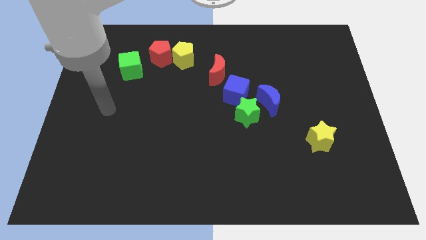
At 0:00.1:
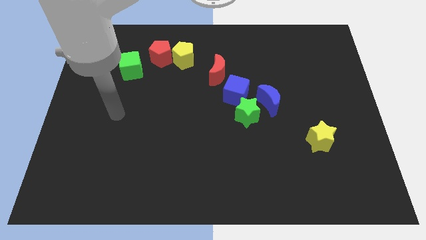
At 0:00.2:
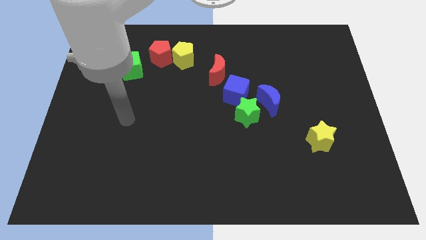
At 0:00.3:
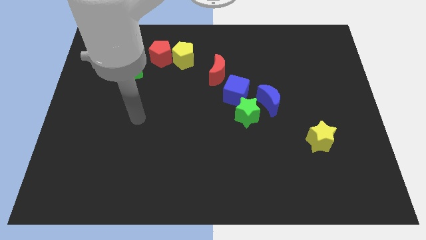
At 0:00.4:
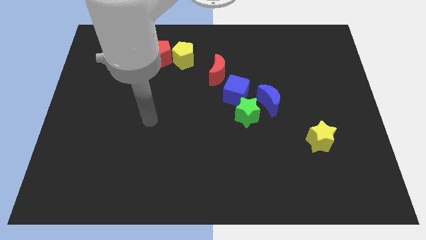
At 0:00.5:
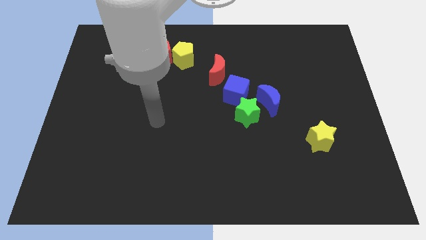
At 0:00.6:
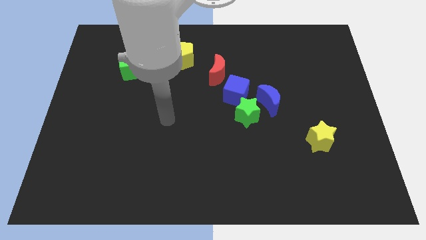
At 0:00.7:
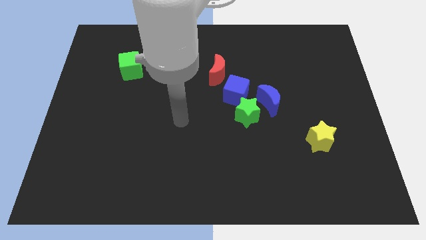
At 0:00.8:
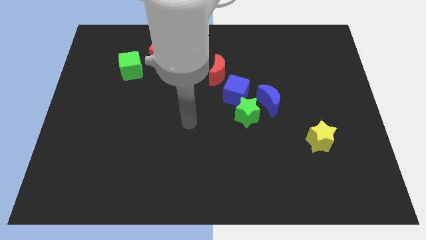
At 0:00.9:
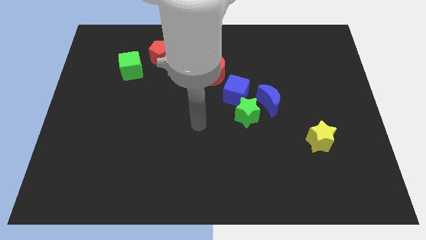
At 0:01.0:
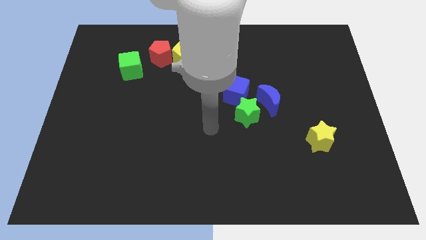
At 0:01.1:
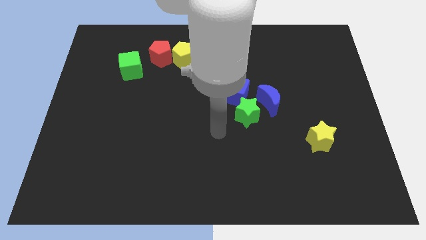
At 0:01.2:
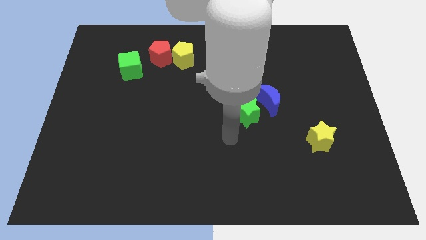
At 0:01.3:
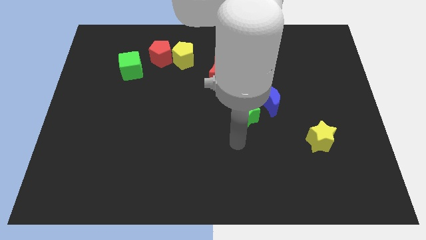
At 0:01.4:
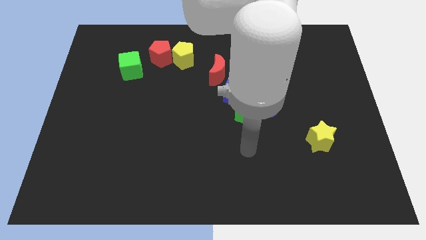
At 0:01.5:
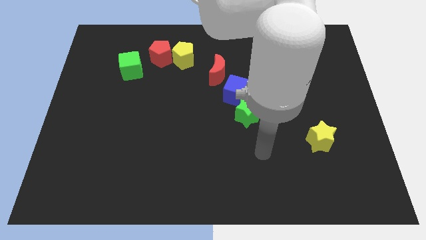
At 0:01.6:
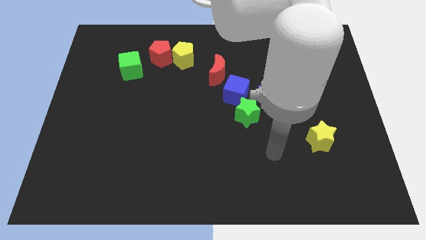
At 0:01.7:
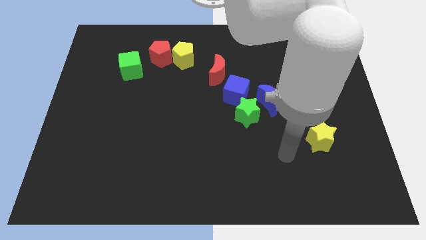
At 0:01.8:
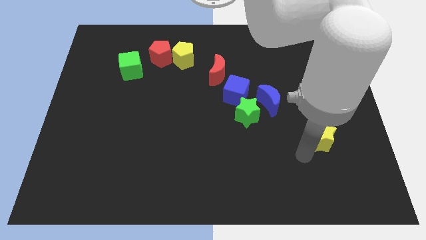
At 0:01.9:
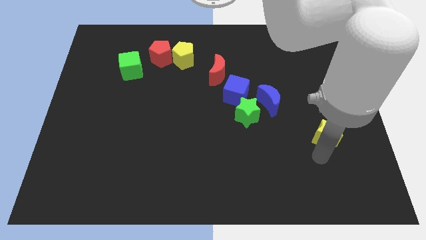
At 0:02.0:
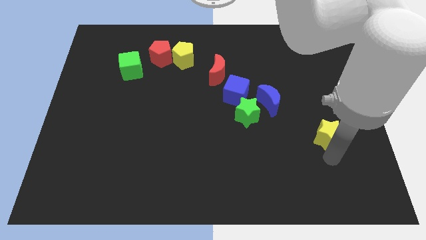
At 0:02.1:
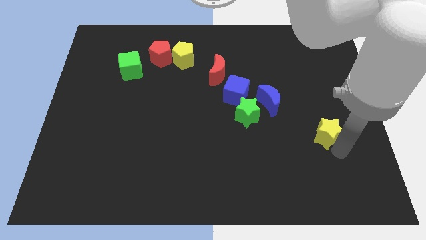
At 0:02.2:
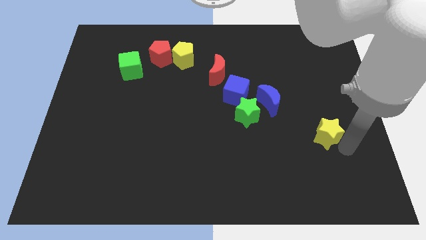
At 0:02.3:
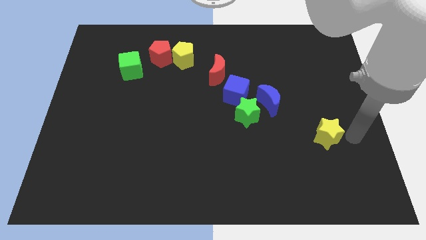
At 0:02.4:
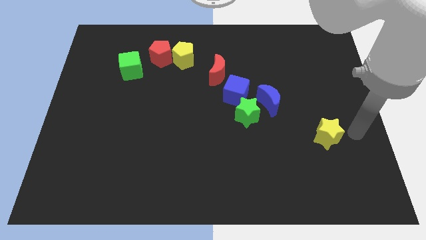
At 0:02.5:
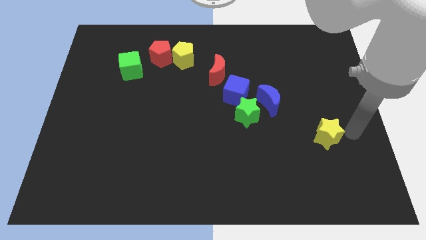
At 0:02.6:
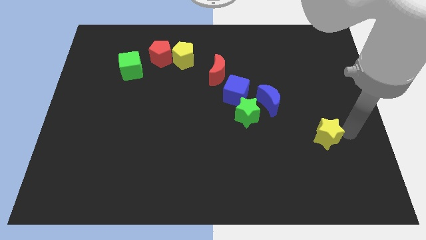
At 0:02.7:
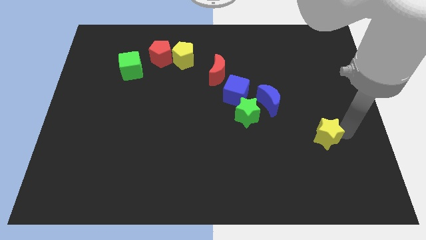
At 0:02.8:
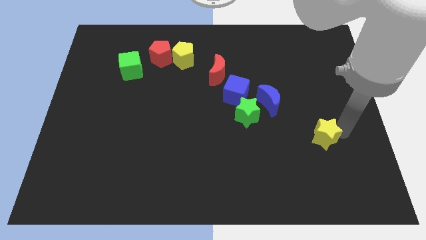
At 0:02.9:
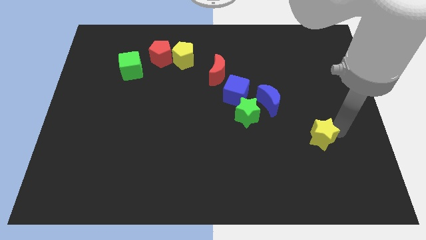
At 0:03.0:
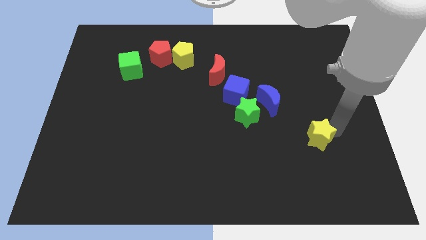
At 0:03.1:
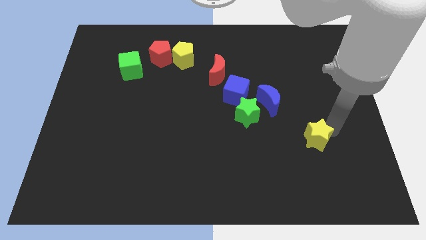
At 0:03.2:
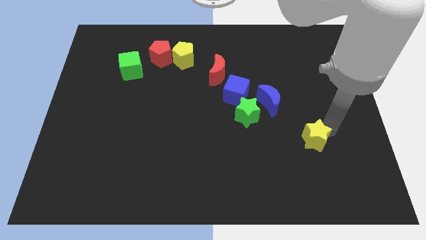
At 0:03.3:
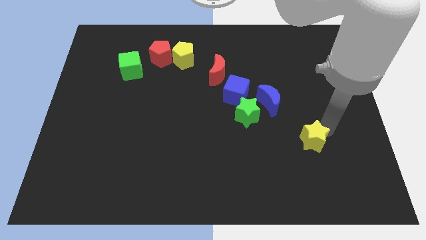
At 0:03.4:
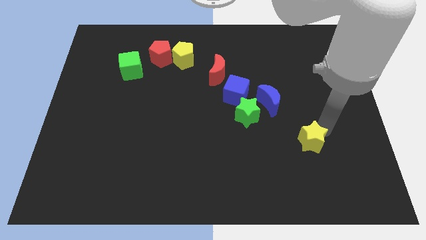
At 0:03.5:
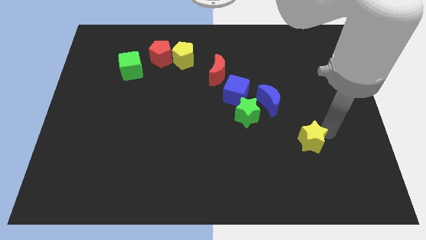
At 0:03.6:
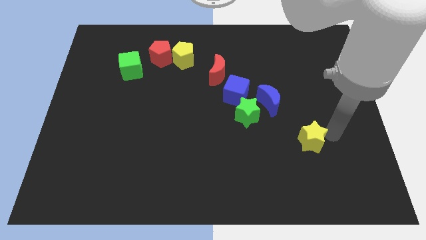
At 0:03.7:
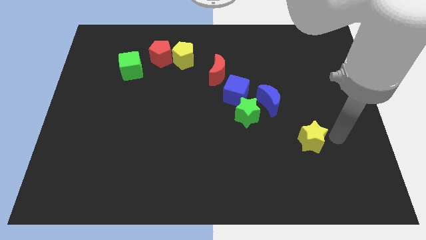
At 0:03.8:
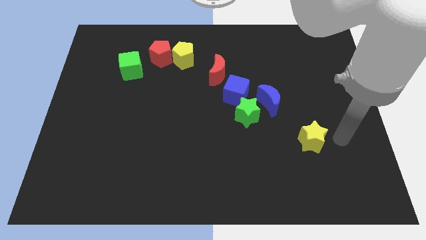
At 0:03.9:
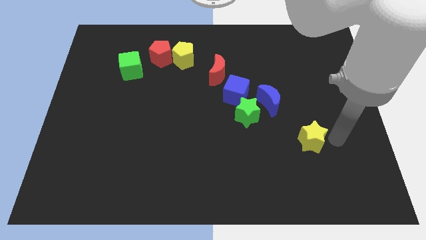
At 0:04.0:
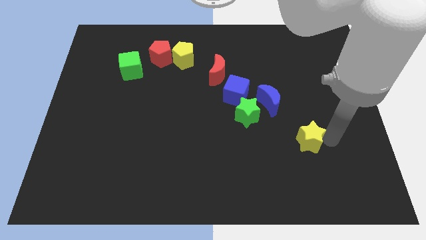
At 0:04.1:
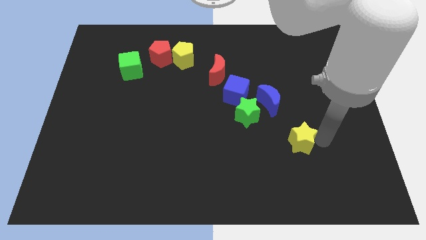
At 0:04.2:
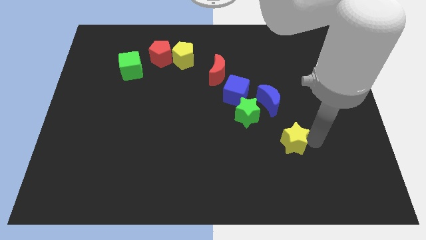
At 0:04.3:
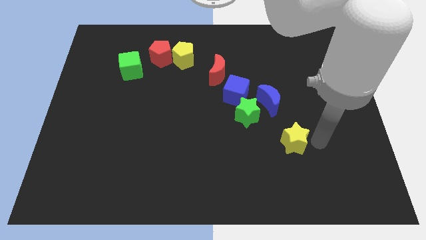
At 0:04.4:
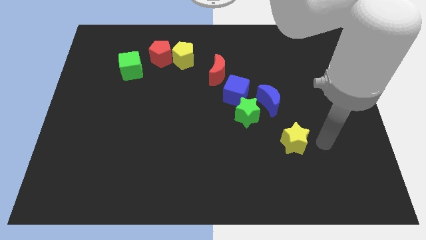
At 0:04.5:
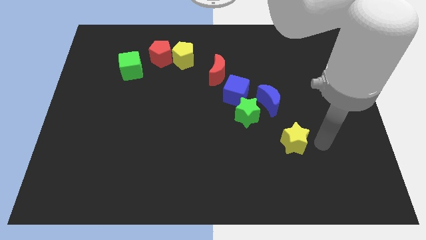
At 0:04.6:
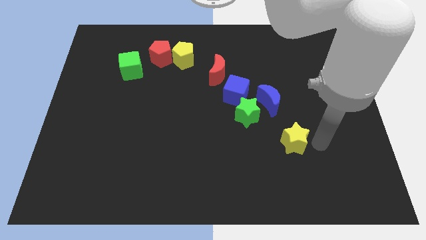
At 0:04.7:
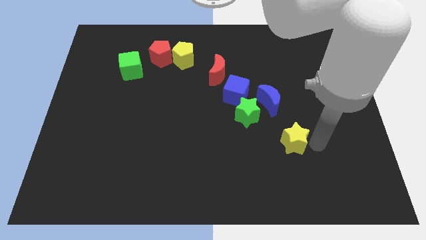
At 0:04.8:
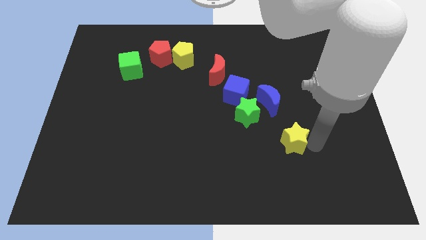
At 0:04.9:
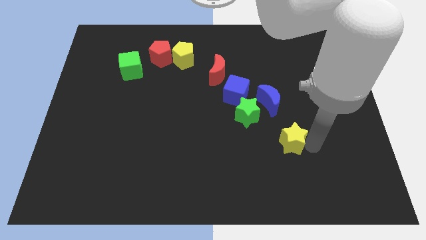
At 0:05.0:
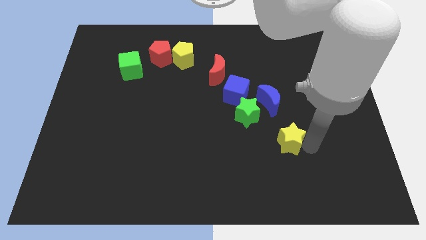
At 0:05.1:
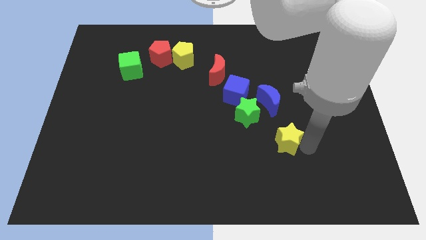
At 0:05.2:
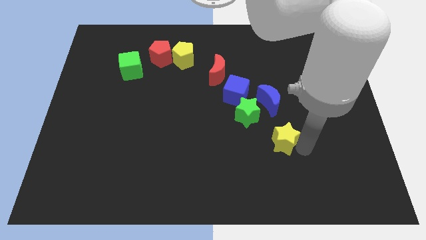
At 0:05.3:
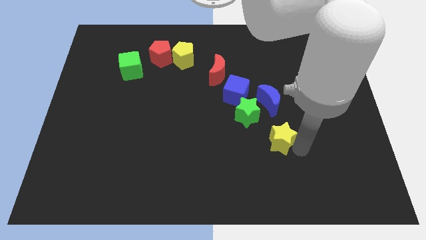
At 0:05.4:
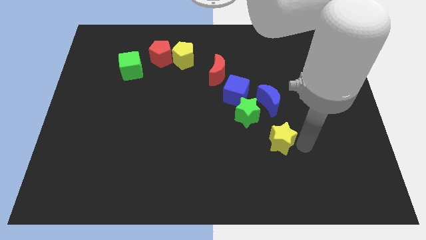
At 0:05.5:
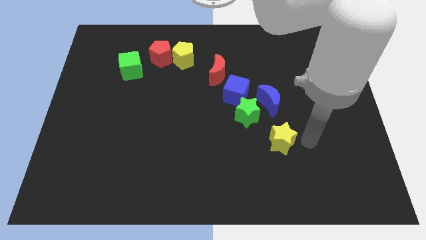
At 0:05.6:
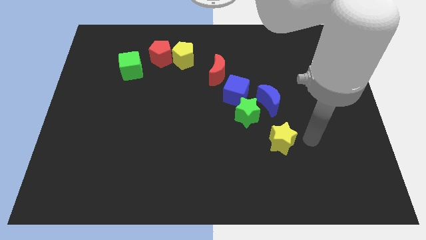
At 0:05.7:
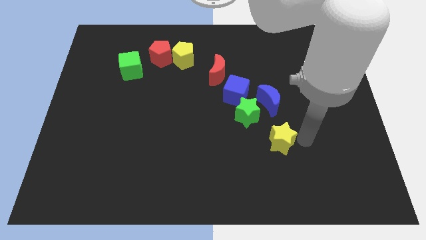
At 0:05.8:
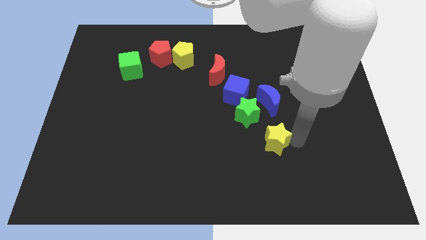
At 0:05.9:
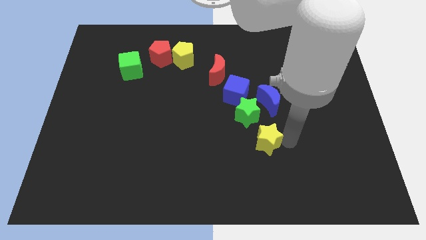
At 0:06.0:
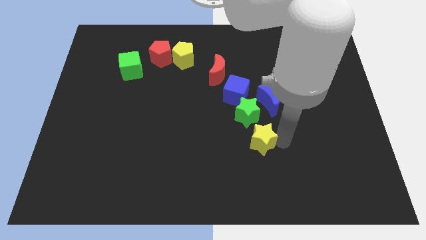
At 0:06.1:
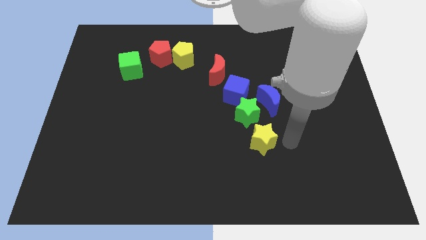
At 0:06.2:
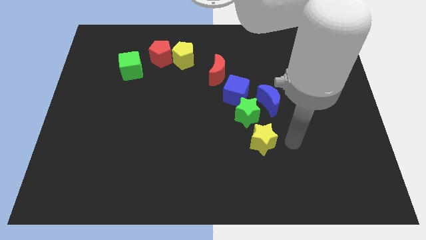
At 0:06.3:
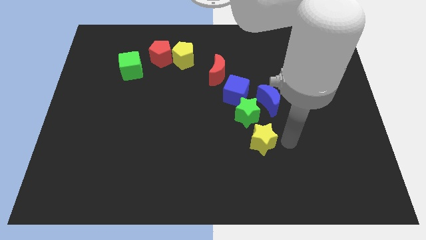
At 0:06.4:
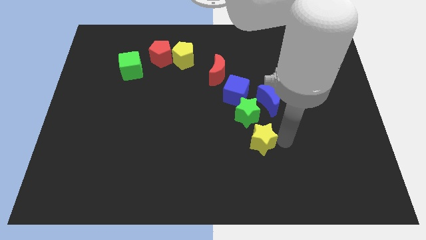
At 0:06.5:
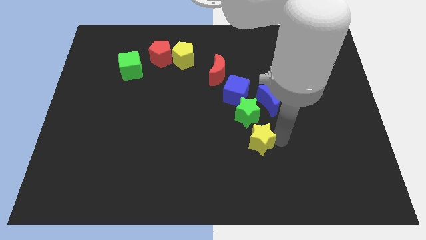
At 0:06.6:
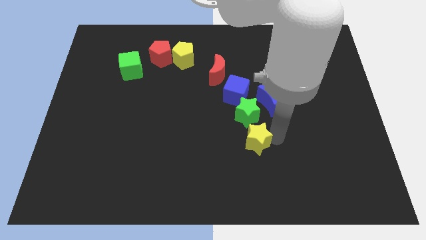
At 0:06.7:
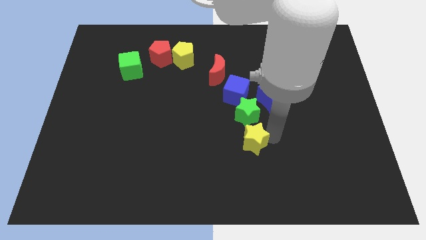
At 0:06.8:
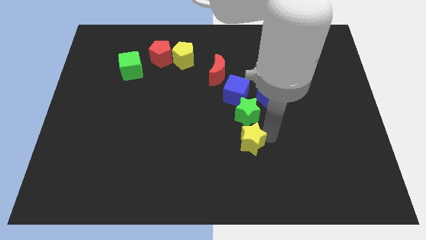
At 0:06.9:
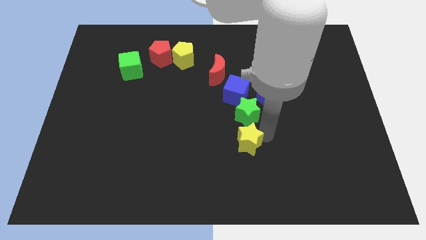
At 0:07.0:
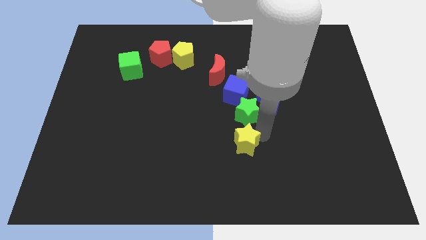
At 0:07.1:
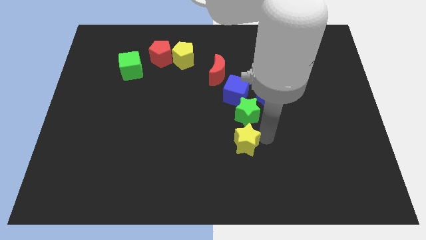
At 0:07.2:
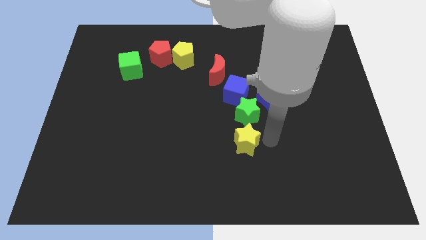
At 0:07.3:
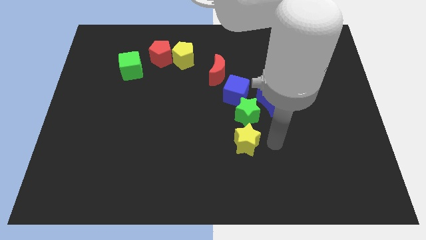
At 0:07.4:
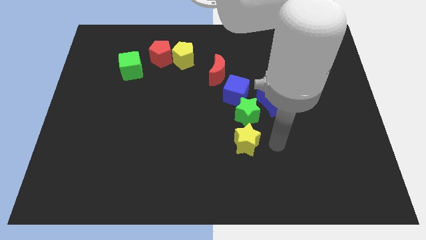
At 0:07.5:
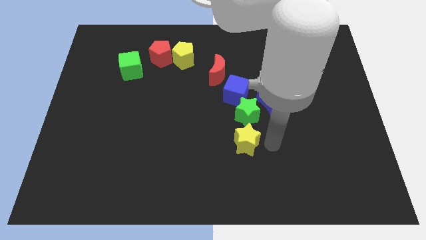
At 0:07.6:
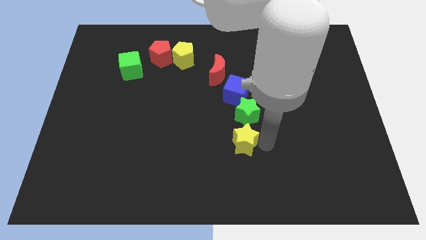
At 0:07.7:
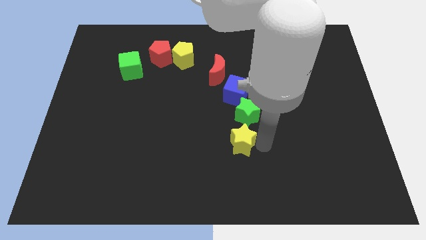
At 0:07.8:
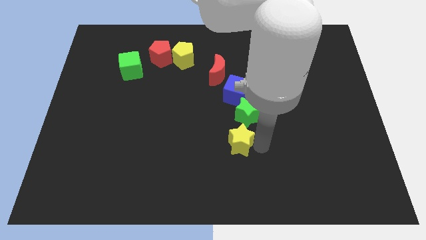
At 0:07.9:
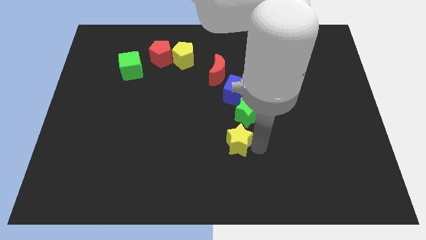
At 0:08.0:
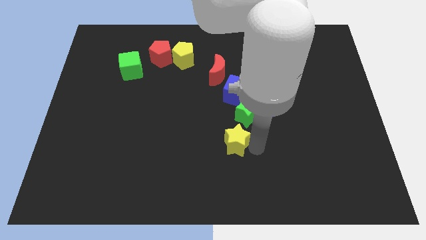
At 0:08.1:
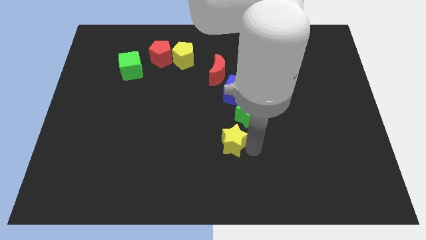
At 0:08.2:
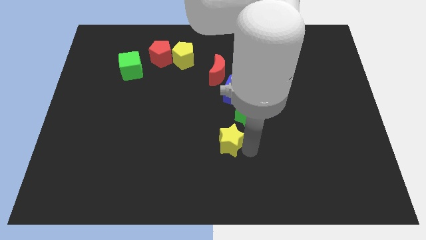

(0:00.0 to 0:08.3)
slide the yellow star to the left
